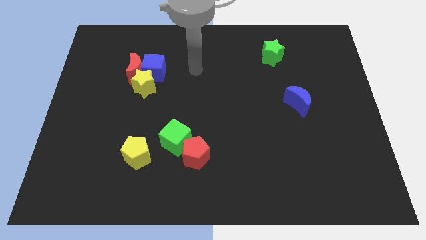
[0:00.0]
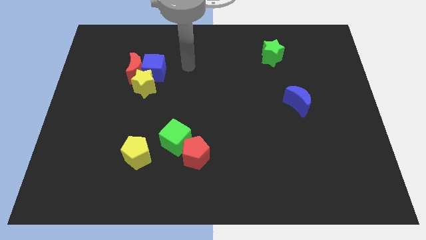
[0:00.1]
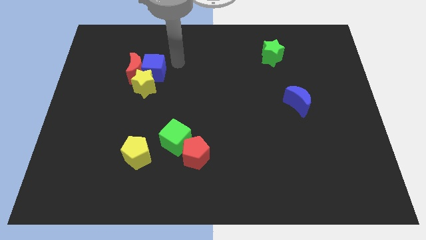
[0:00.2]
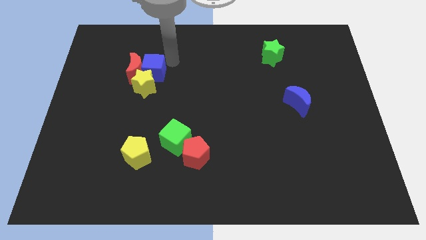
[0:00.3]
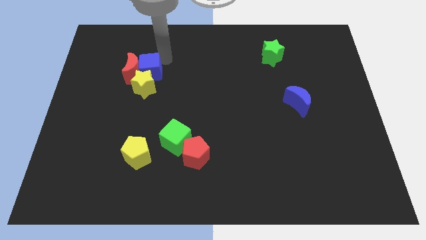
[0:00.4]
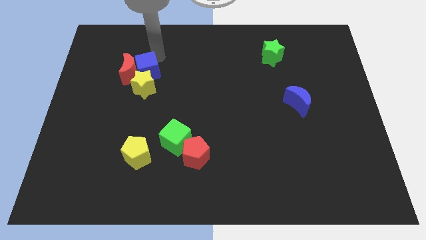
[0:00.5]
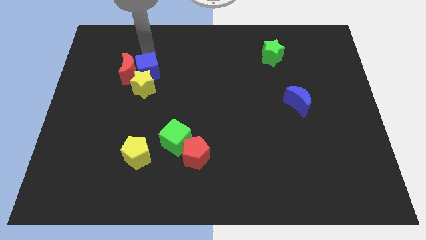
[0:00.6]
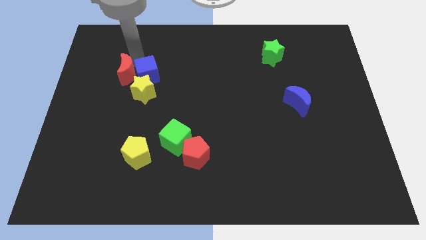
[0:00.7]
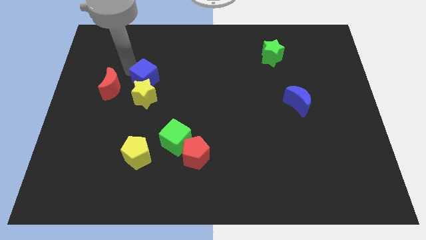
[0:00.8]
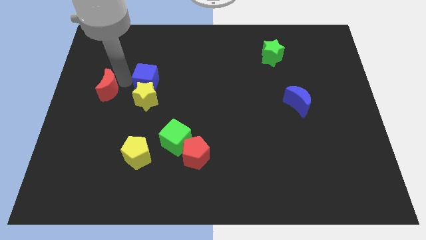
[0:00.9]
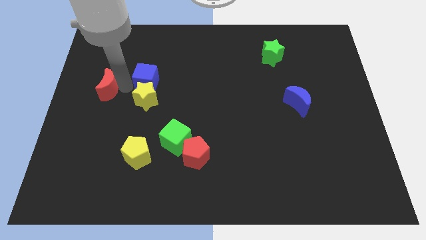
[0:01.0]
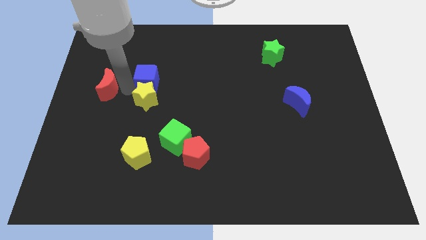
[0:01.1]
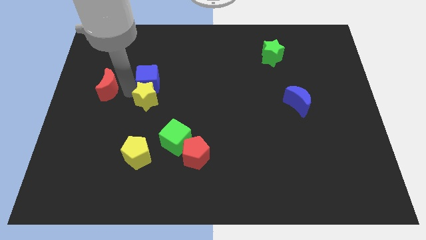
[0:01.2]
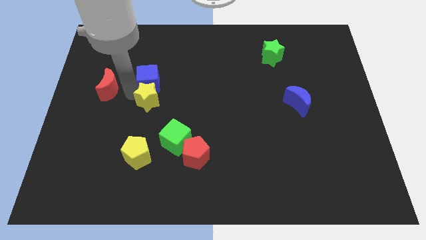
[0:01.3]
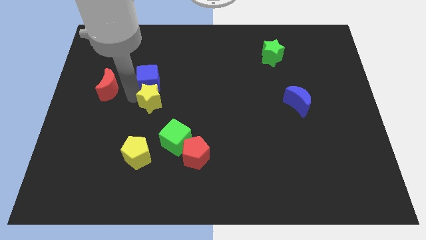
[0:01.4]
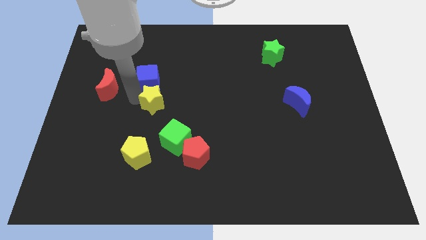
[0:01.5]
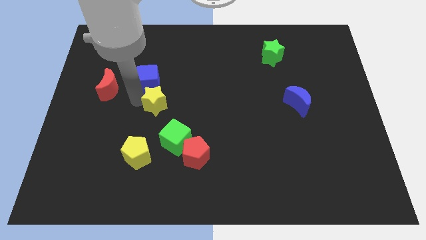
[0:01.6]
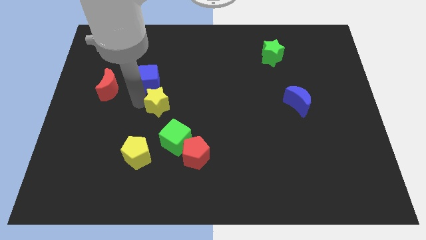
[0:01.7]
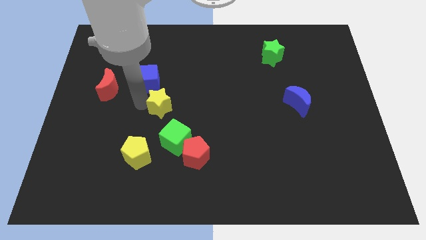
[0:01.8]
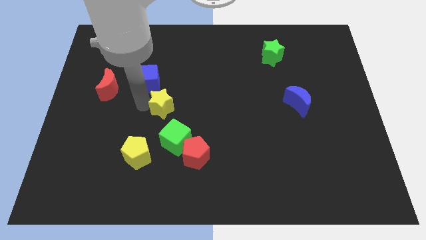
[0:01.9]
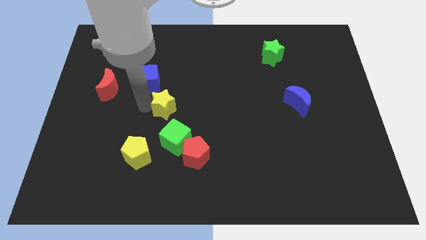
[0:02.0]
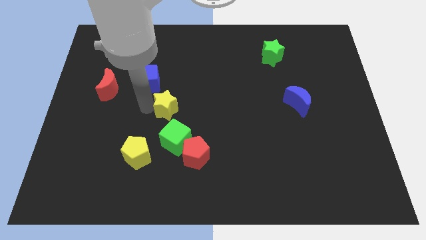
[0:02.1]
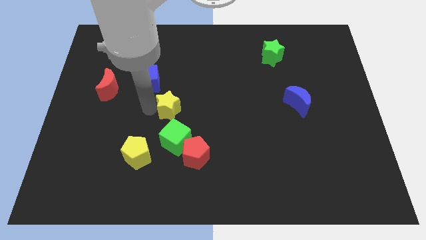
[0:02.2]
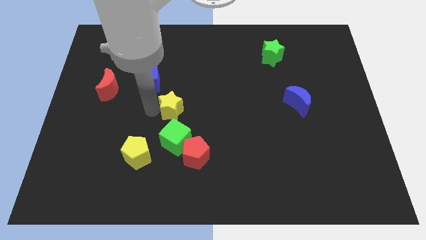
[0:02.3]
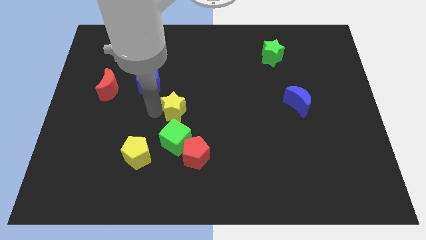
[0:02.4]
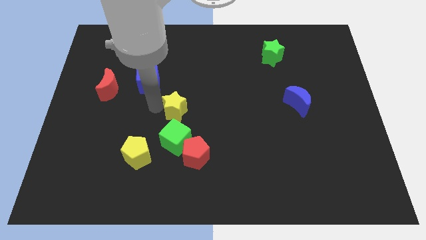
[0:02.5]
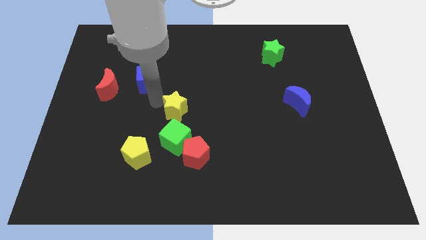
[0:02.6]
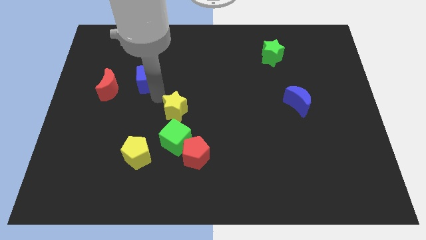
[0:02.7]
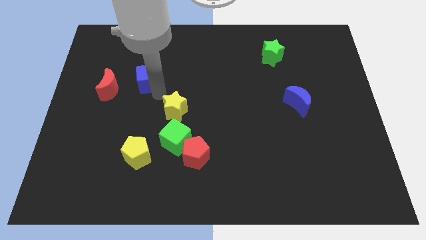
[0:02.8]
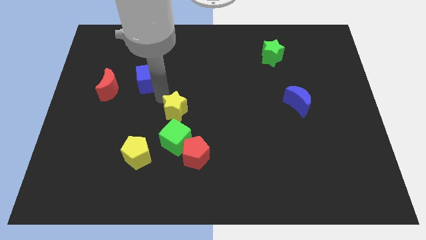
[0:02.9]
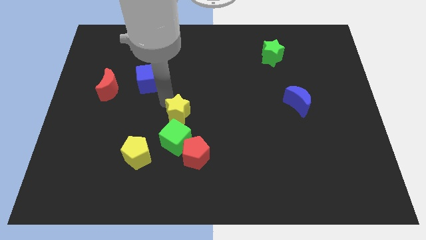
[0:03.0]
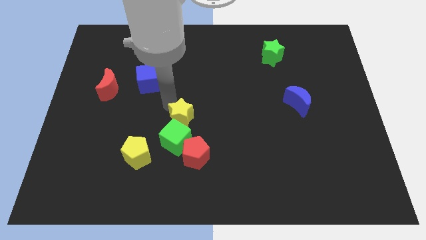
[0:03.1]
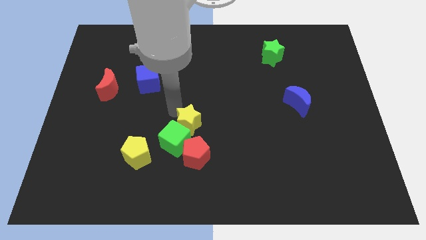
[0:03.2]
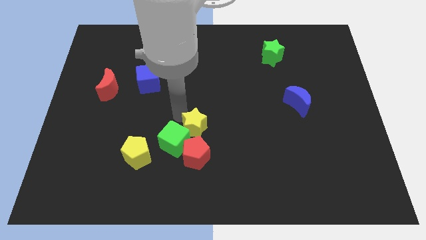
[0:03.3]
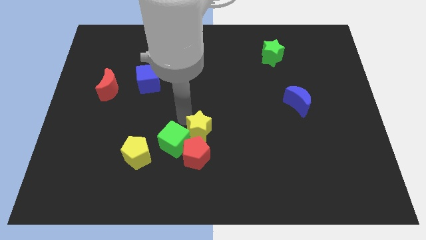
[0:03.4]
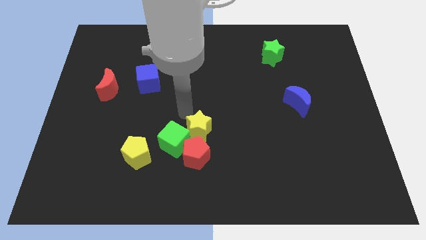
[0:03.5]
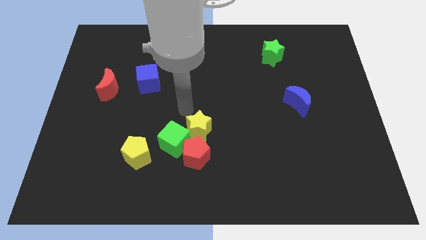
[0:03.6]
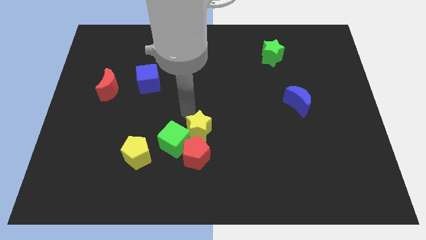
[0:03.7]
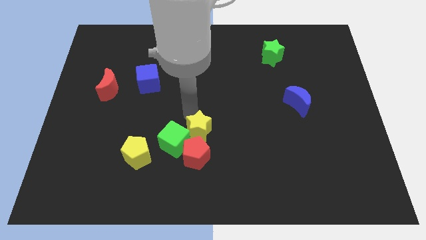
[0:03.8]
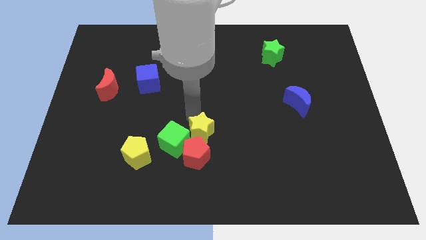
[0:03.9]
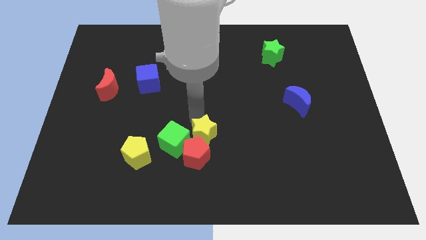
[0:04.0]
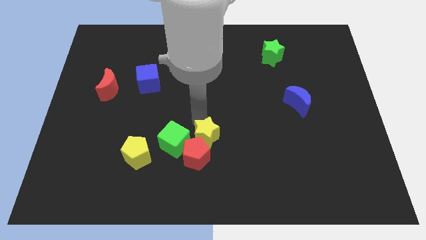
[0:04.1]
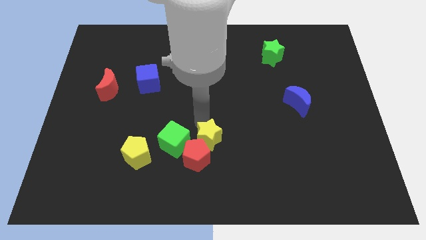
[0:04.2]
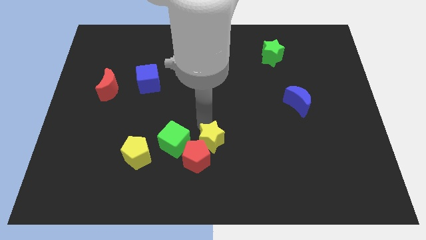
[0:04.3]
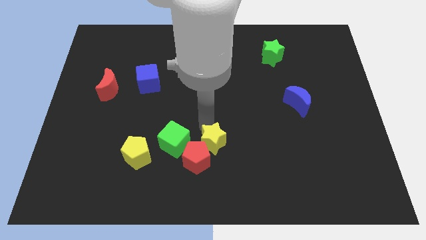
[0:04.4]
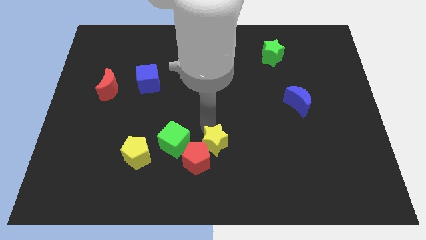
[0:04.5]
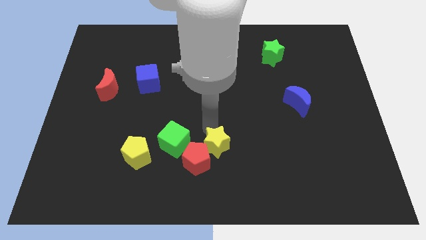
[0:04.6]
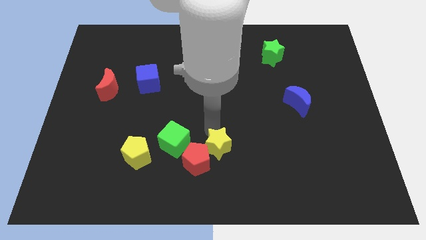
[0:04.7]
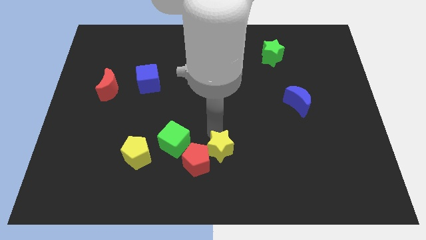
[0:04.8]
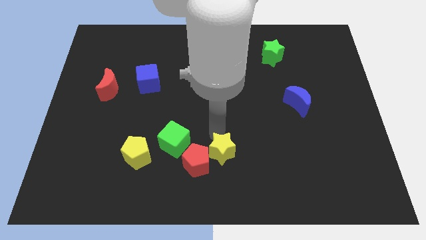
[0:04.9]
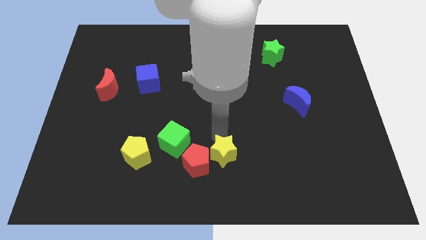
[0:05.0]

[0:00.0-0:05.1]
put the yellow star to the bottom
